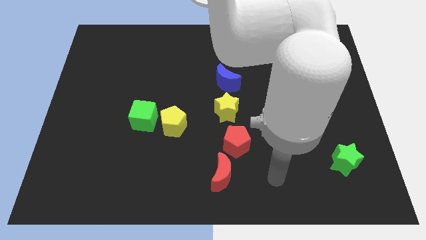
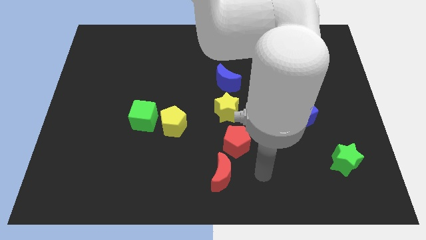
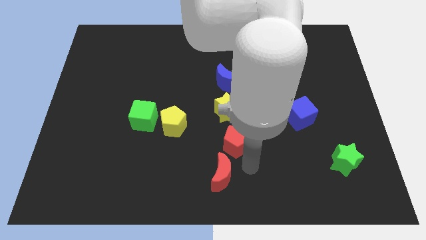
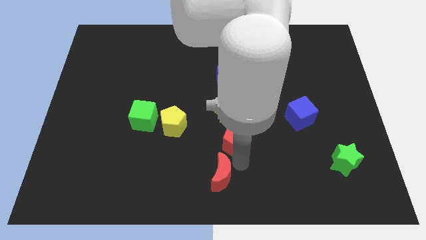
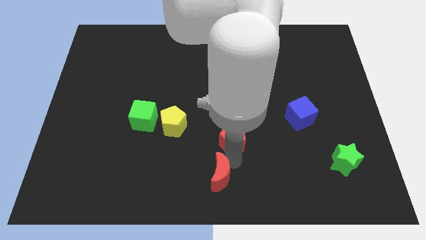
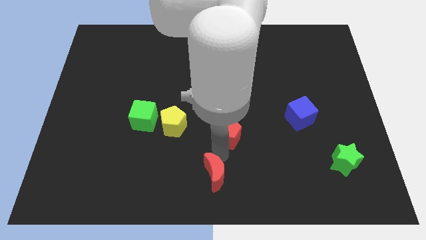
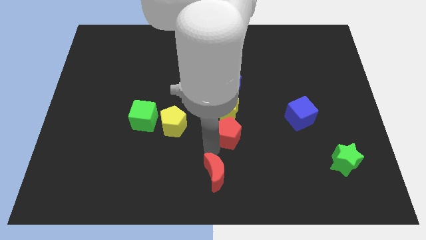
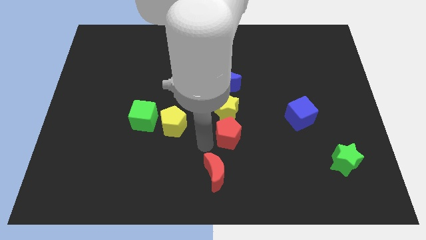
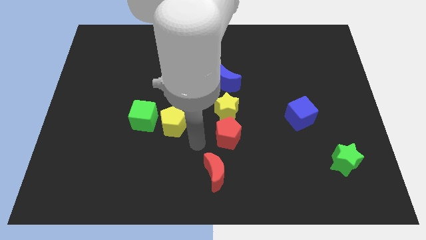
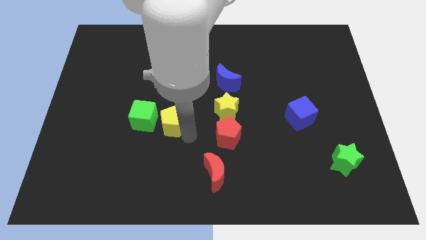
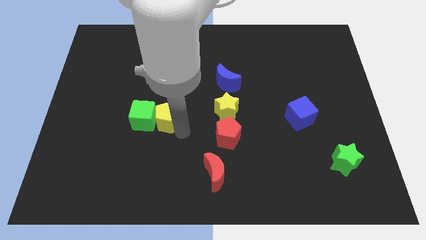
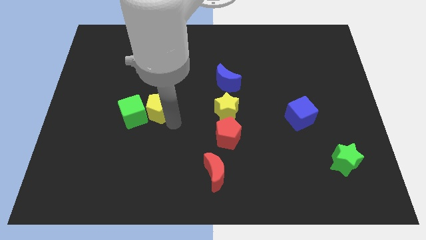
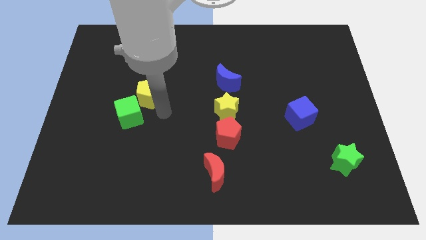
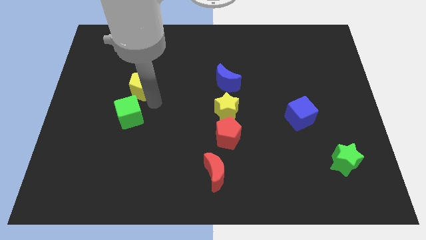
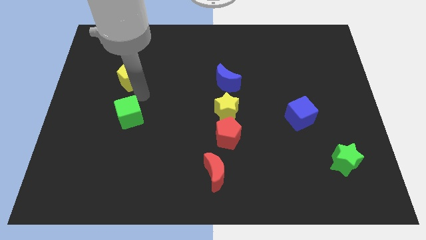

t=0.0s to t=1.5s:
separate the green cube from the yellow pentagon

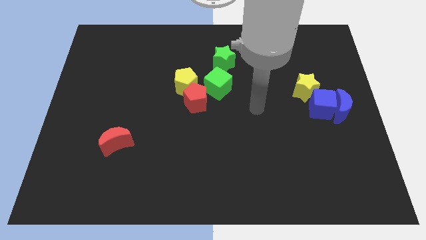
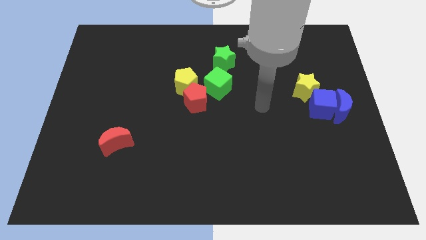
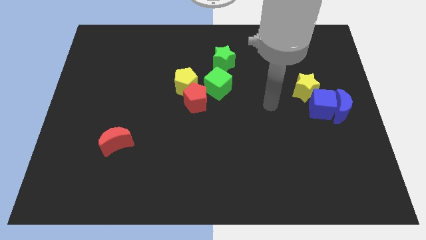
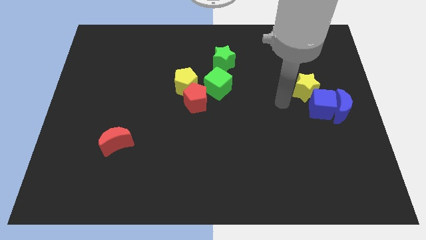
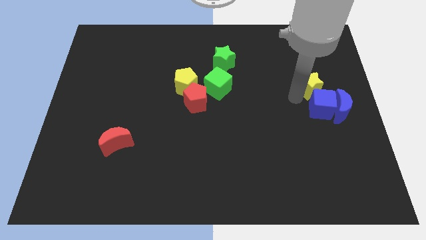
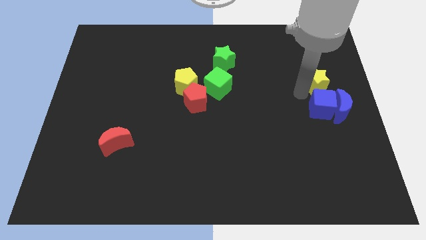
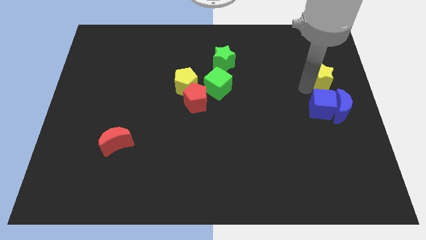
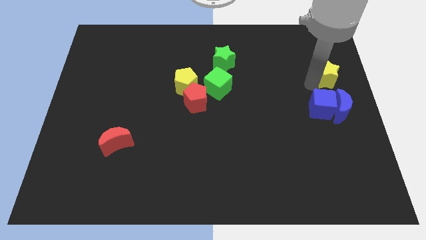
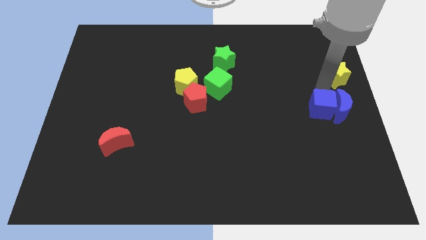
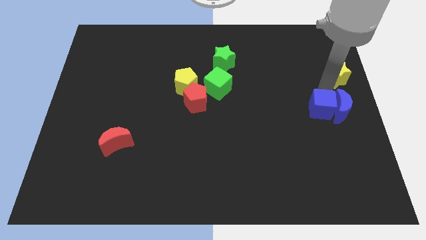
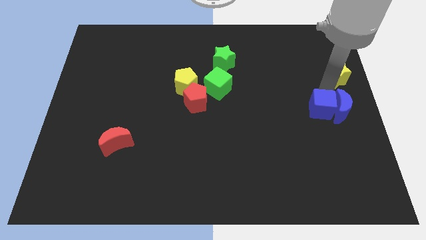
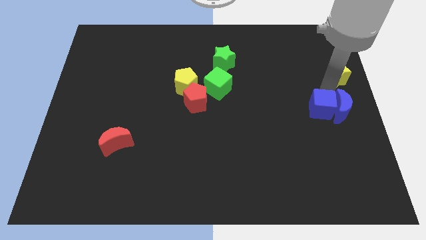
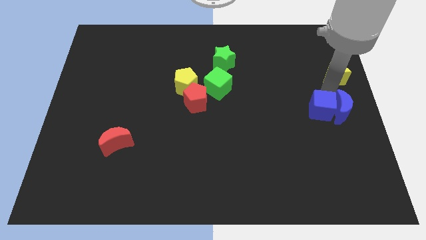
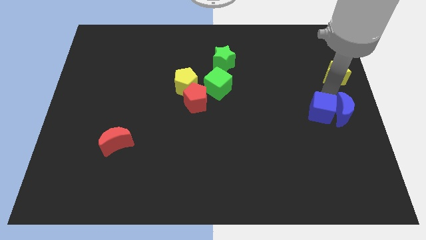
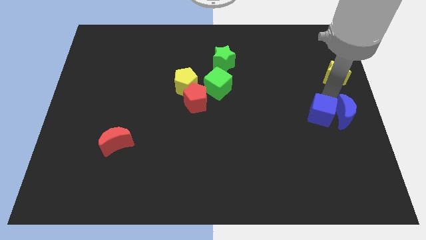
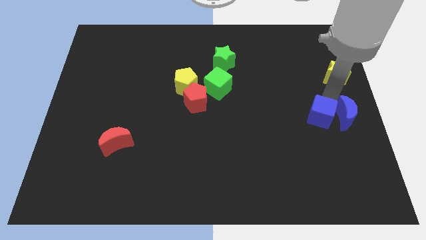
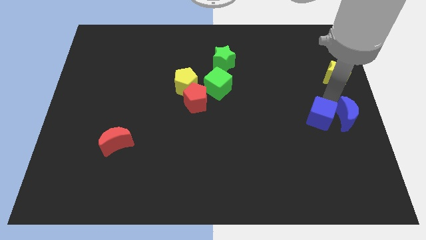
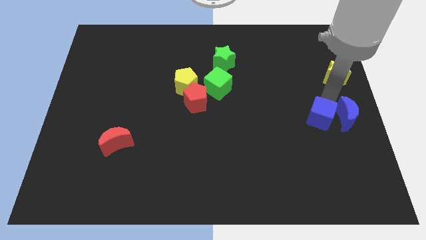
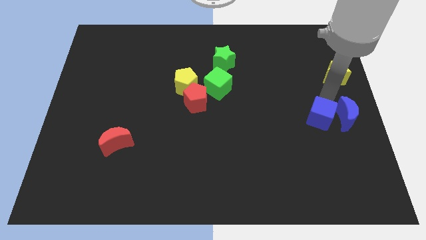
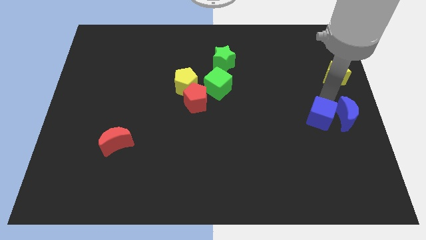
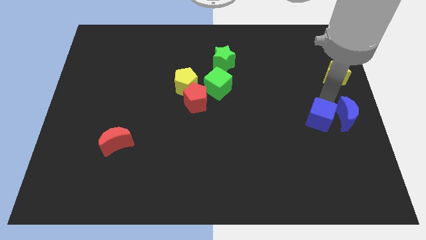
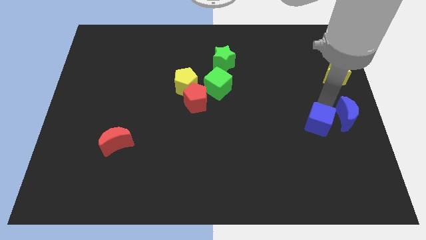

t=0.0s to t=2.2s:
pull the blue cube apart from the blue moon and yellow star

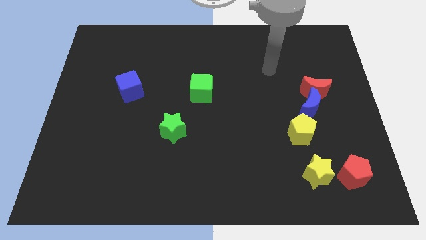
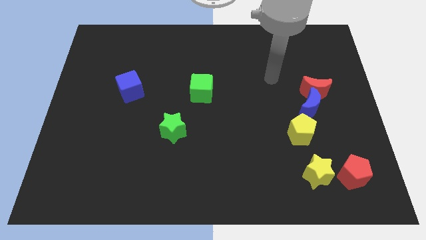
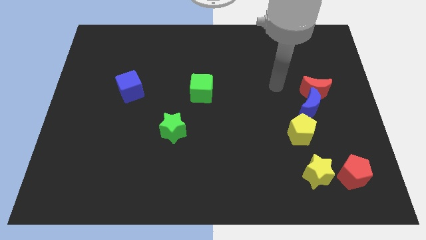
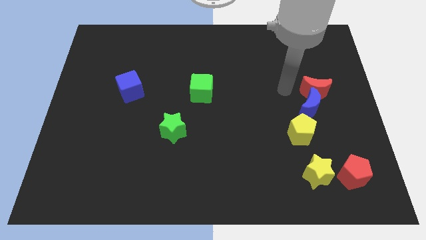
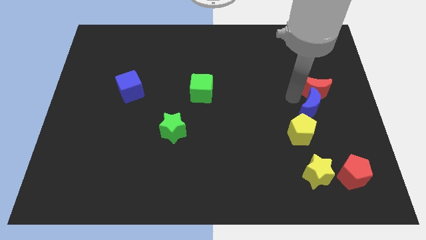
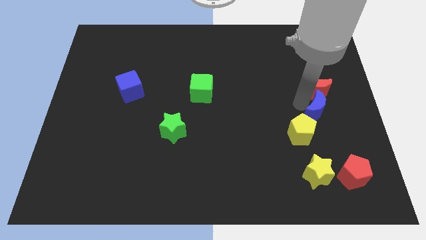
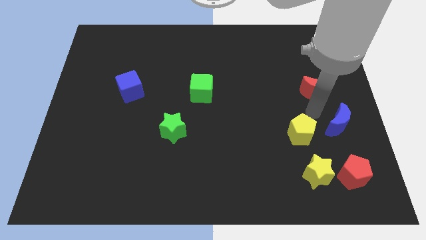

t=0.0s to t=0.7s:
pull the red moon apart from the blue moon

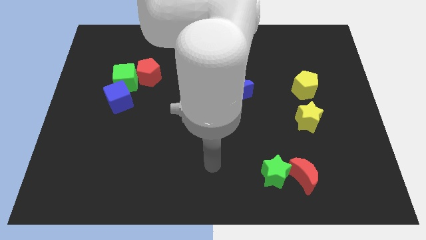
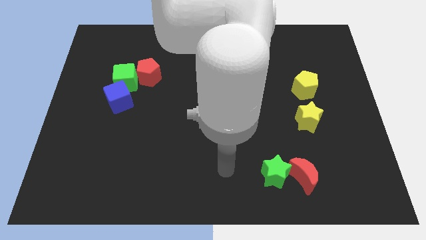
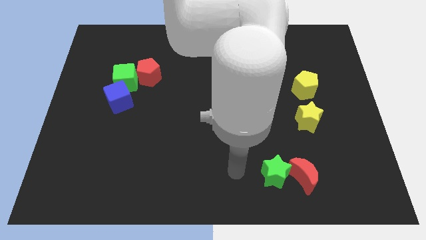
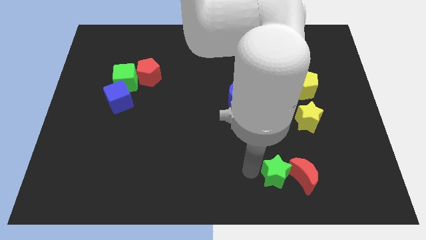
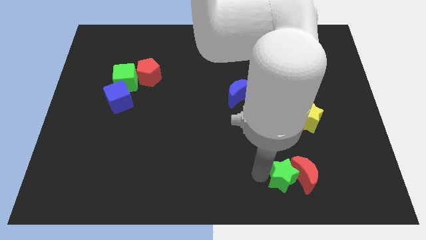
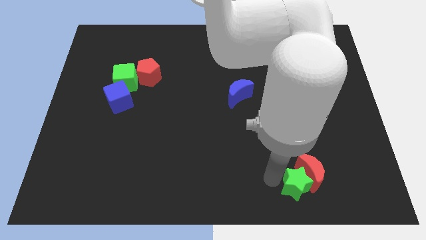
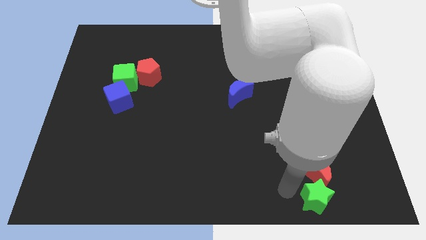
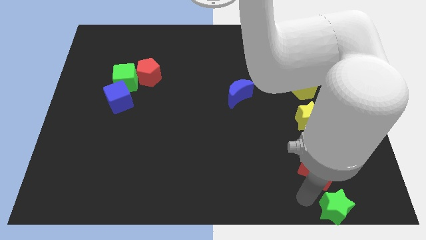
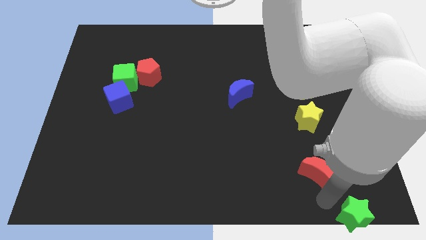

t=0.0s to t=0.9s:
separate the red moon from the green star

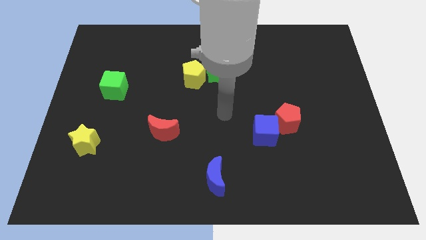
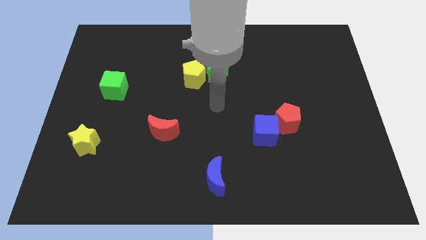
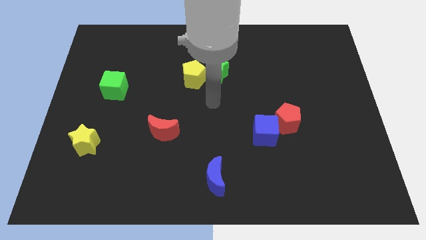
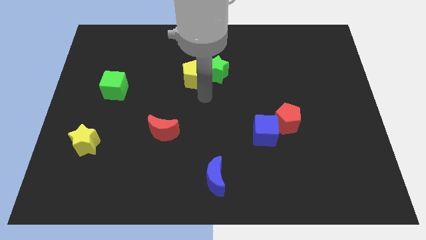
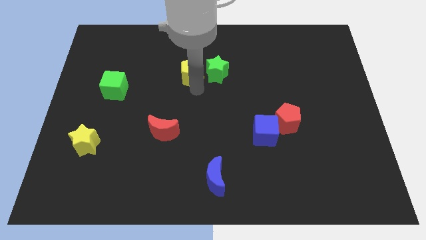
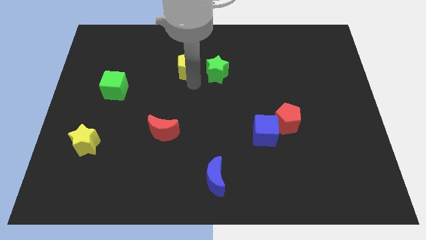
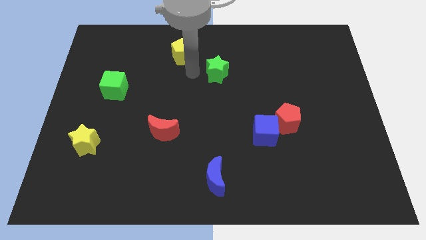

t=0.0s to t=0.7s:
pull the green star apart from the yellow pentagon

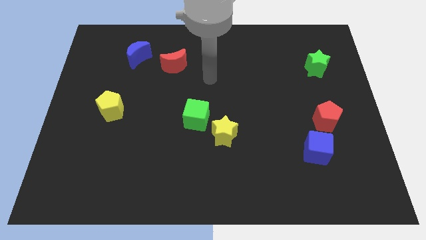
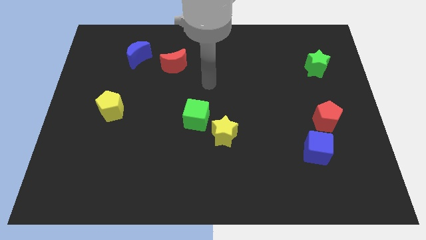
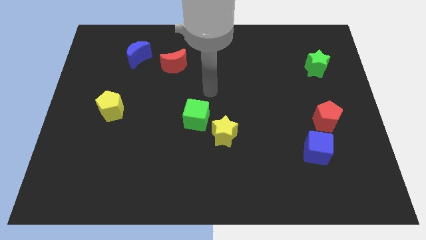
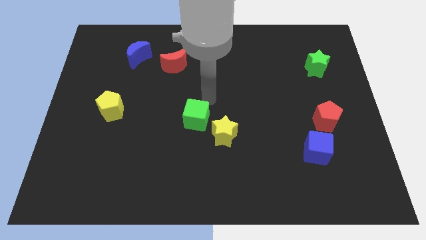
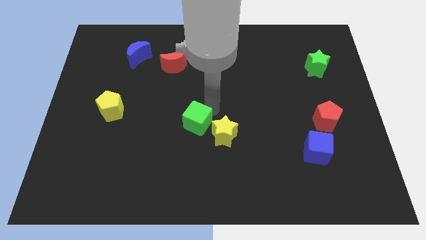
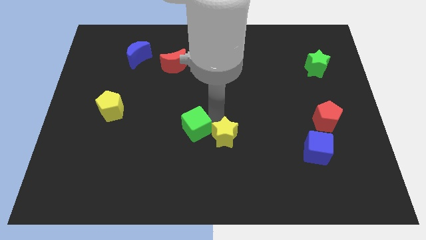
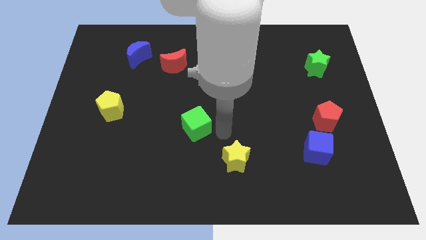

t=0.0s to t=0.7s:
separate the green cube from the yellow star

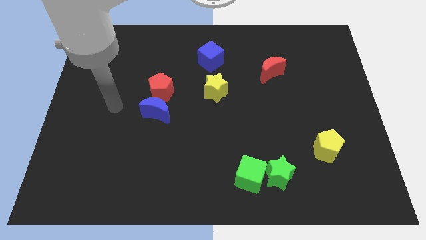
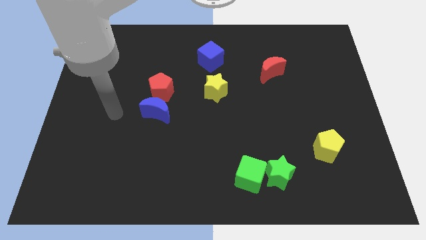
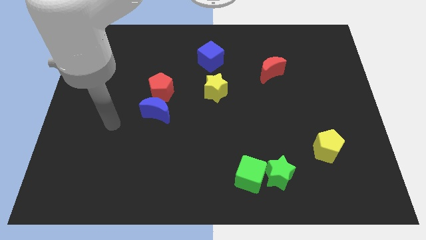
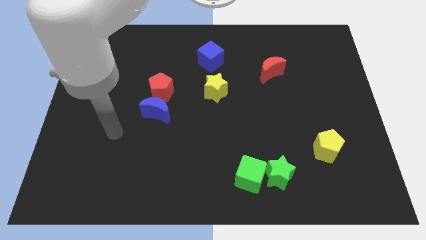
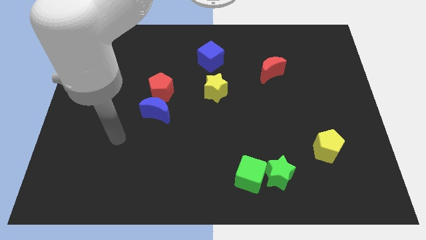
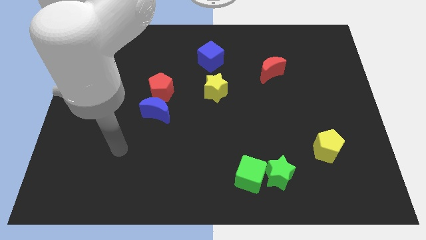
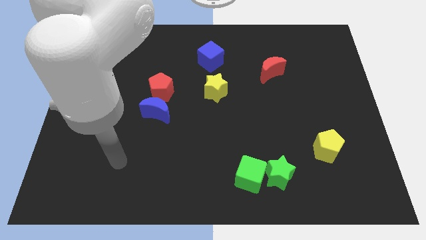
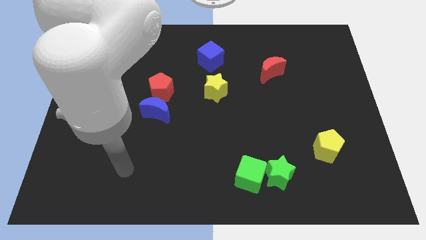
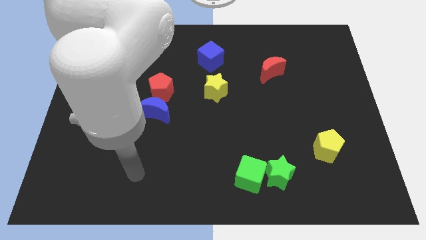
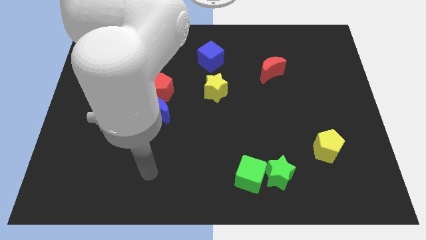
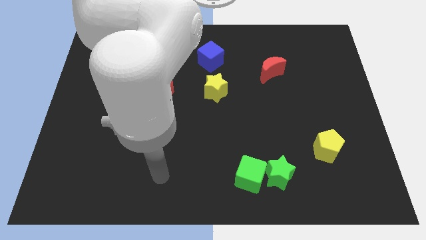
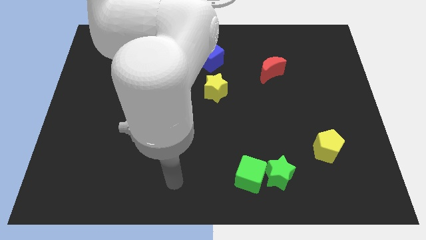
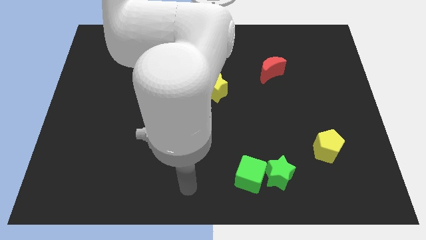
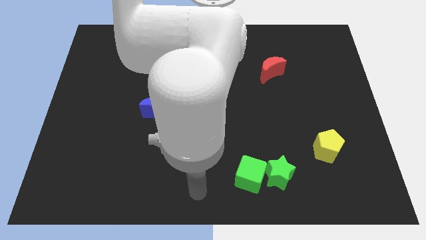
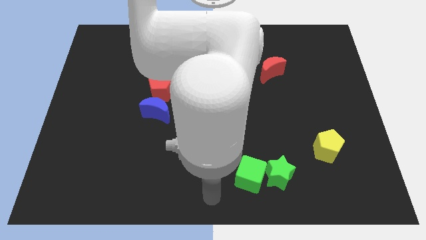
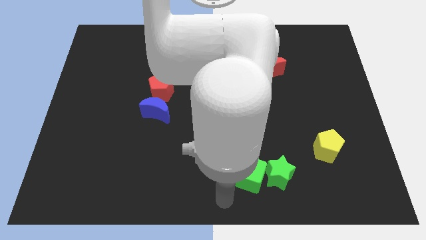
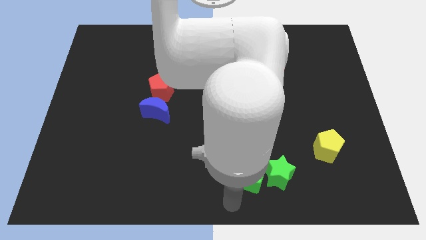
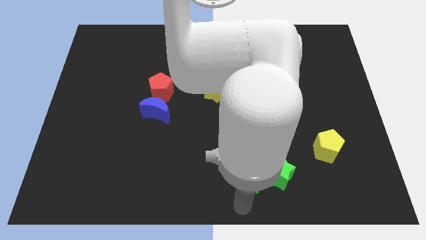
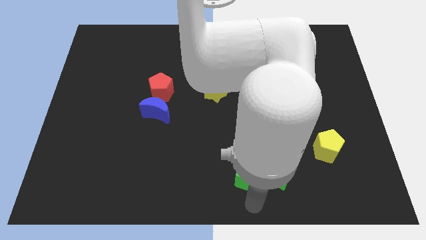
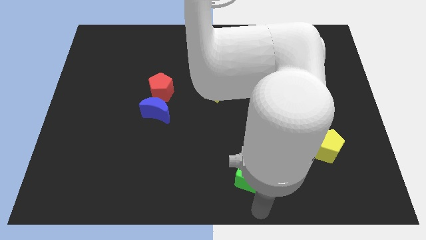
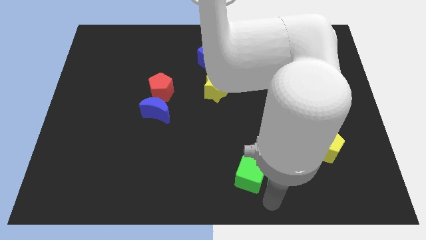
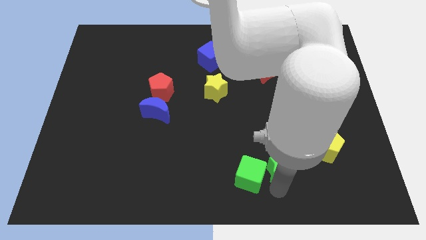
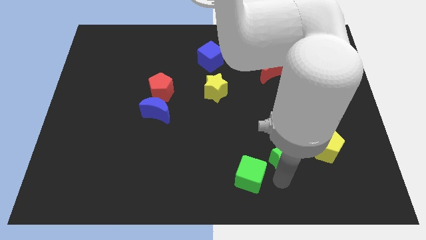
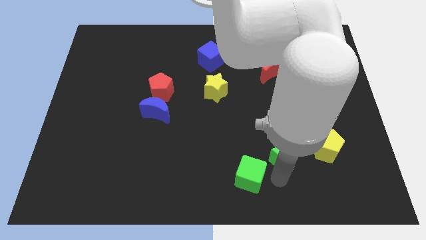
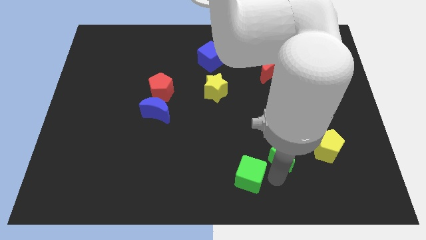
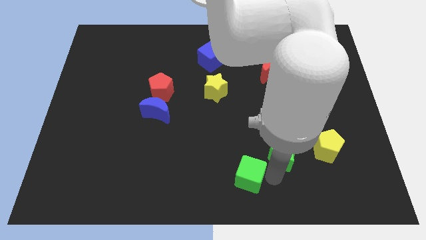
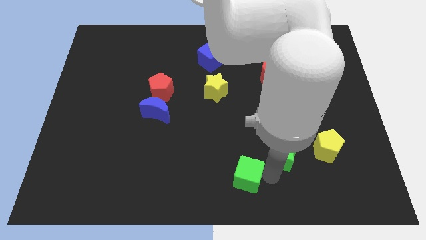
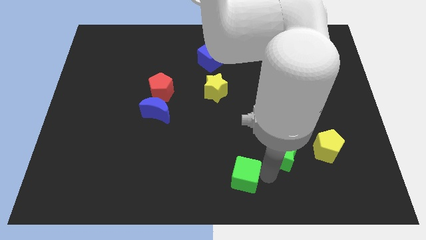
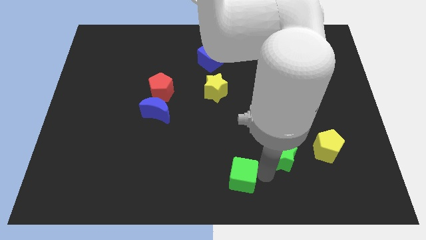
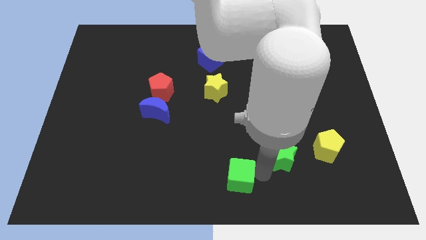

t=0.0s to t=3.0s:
separate the green cube from the green star
